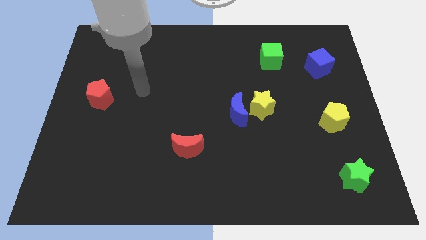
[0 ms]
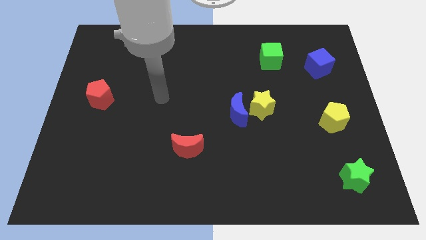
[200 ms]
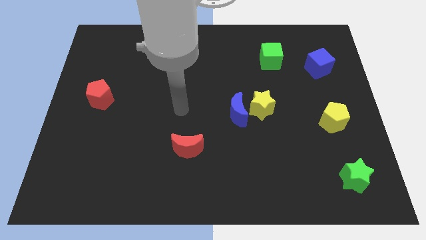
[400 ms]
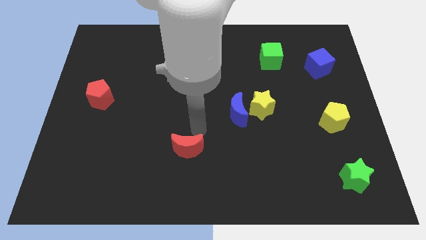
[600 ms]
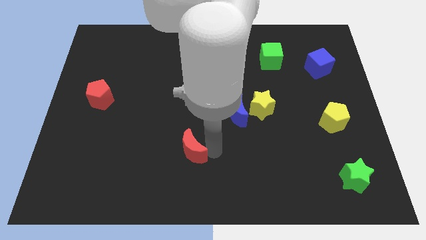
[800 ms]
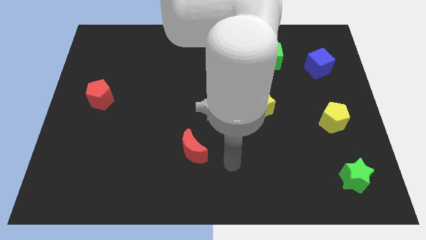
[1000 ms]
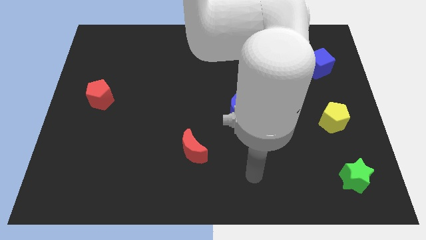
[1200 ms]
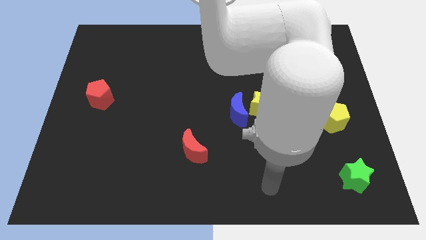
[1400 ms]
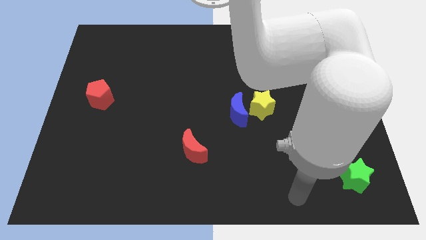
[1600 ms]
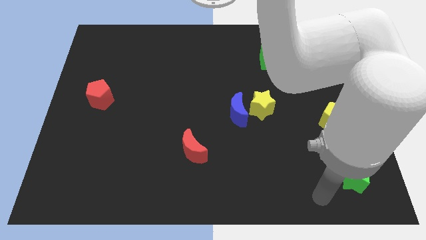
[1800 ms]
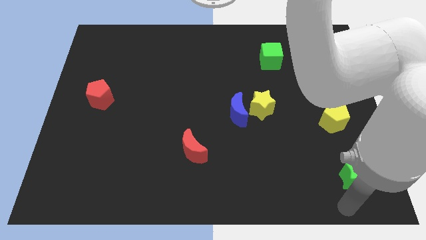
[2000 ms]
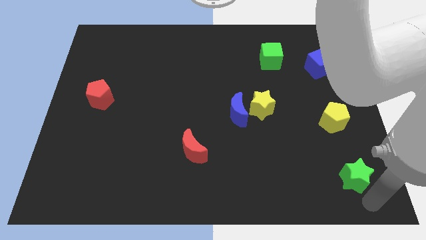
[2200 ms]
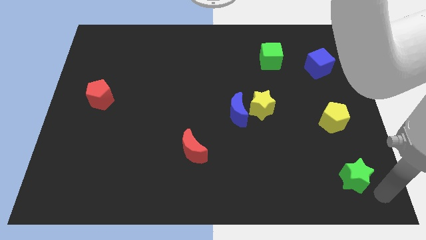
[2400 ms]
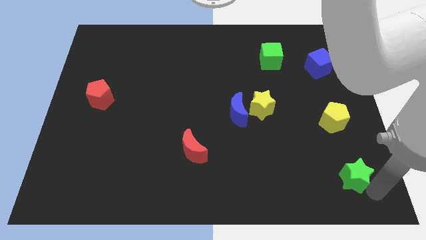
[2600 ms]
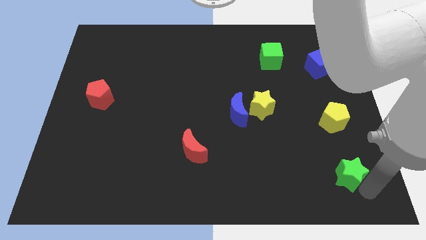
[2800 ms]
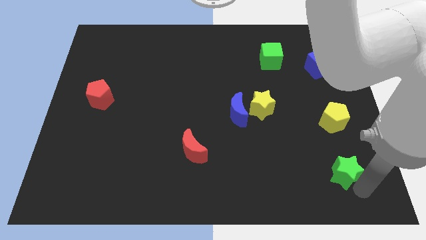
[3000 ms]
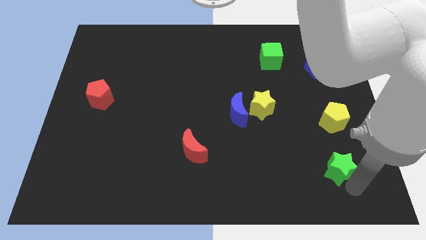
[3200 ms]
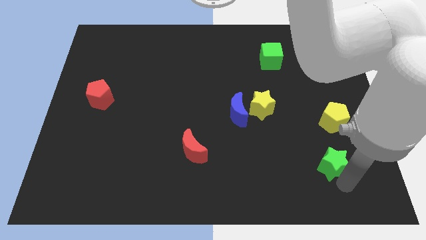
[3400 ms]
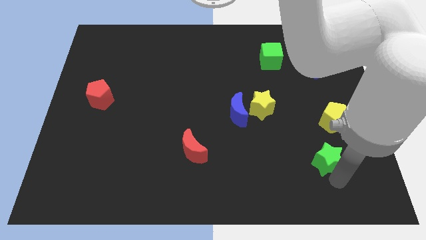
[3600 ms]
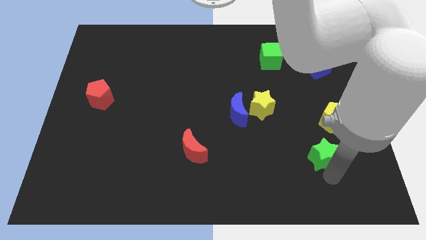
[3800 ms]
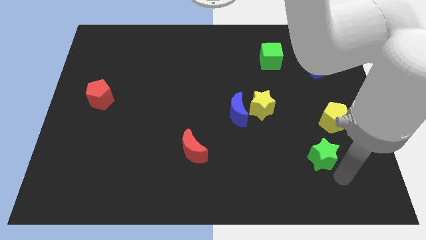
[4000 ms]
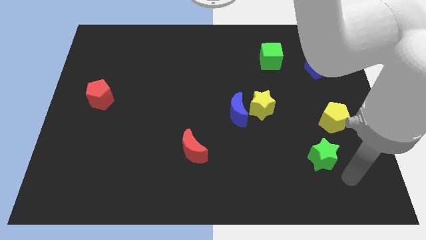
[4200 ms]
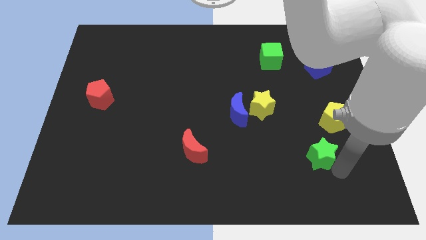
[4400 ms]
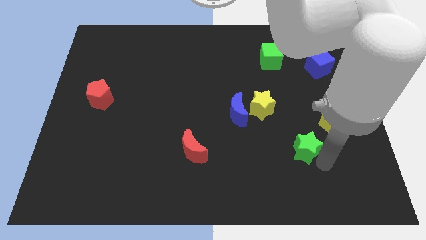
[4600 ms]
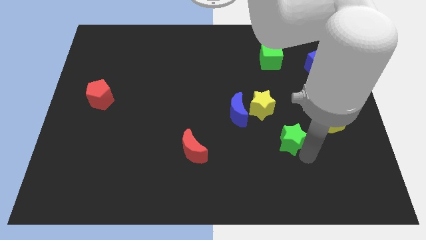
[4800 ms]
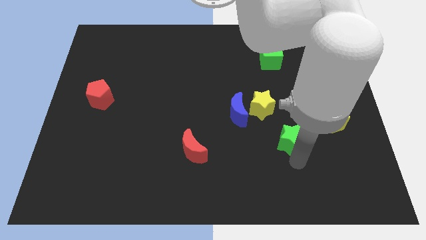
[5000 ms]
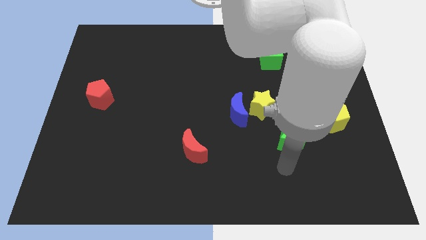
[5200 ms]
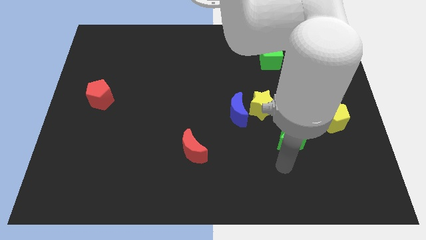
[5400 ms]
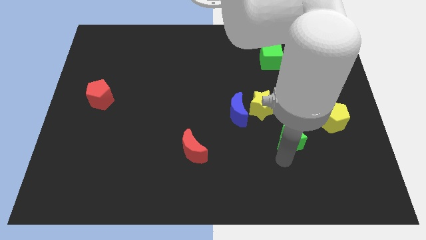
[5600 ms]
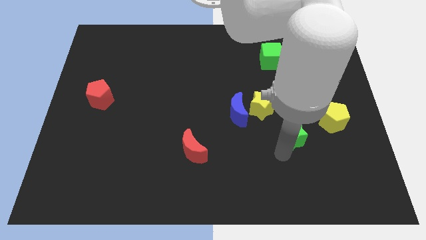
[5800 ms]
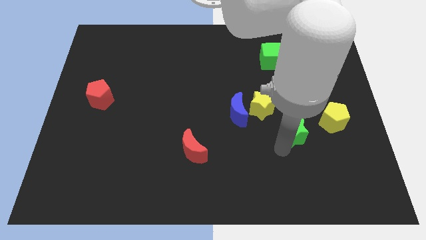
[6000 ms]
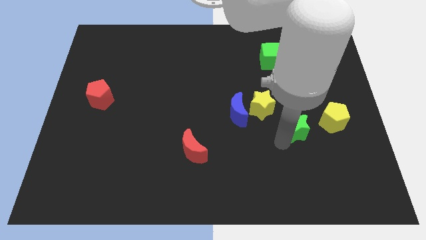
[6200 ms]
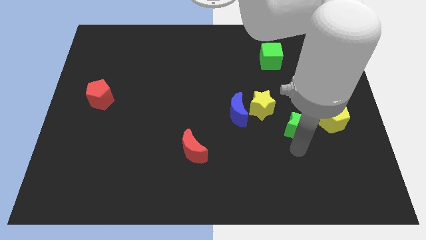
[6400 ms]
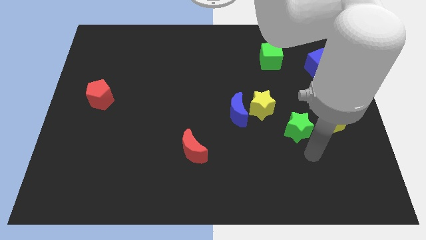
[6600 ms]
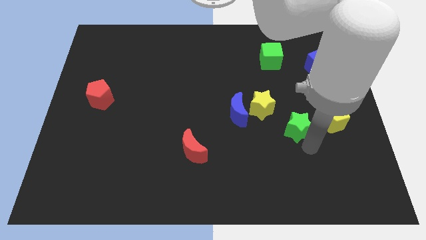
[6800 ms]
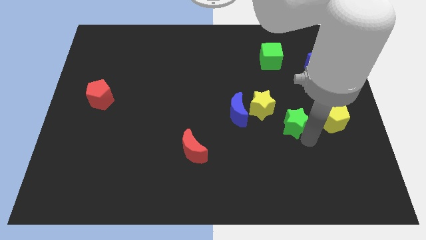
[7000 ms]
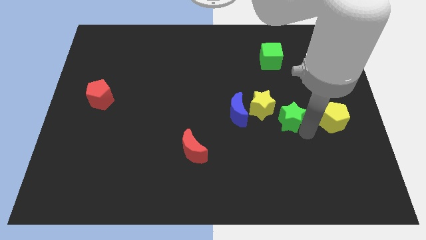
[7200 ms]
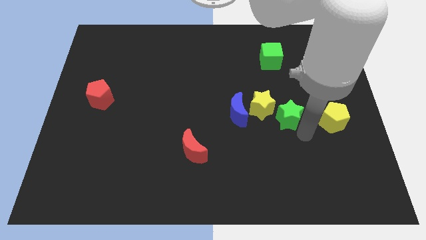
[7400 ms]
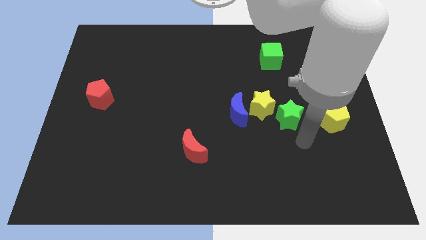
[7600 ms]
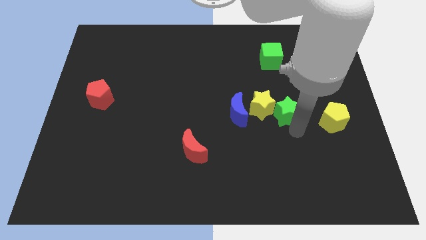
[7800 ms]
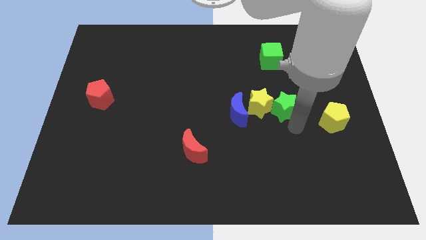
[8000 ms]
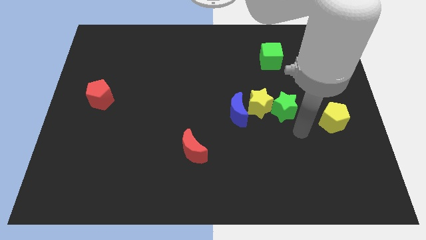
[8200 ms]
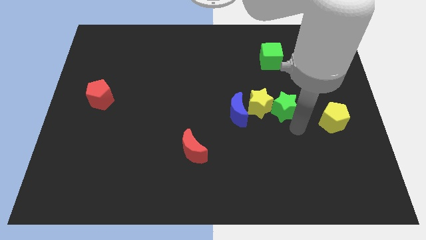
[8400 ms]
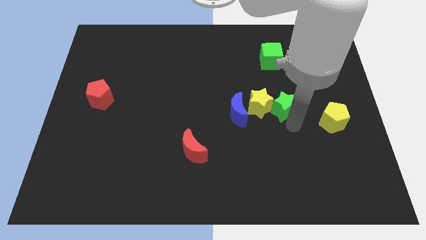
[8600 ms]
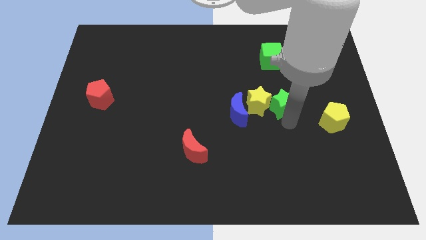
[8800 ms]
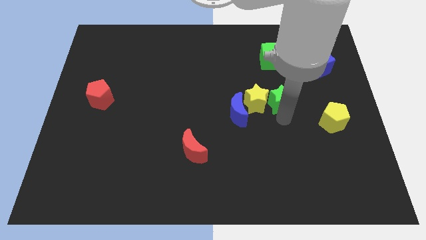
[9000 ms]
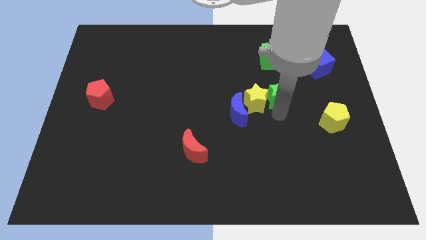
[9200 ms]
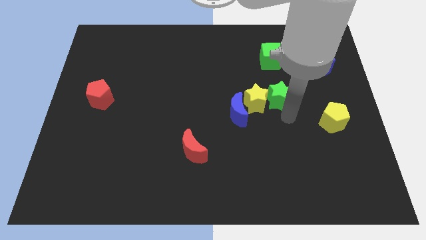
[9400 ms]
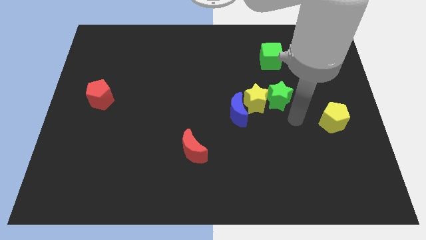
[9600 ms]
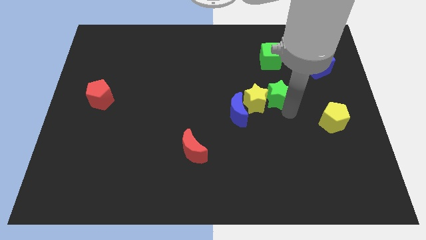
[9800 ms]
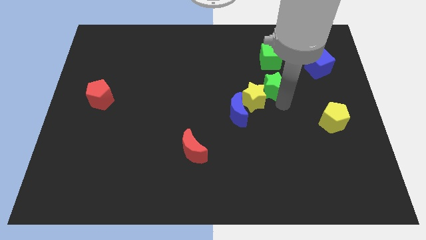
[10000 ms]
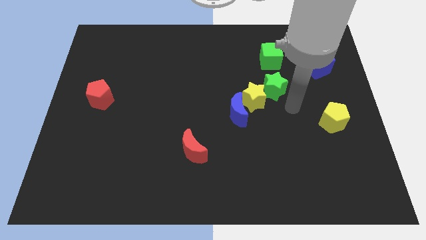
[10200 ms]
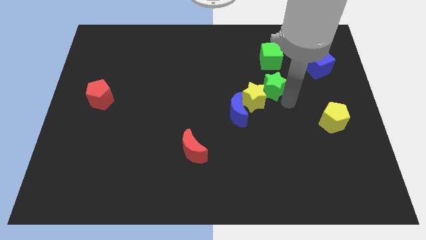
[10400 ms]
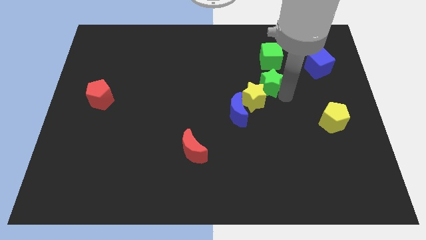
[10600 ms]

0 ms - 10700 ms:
put the green star above the yellow star

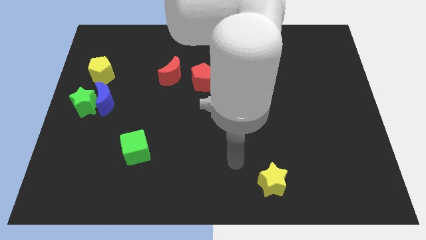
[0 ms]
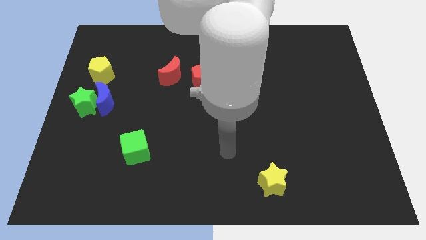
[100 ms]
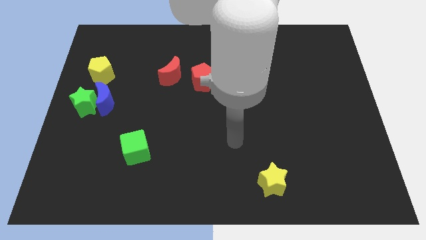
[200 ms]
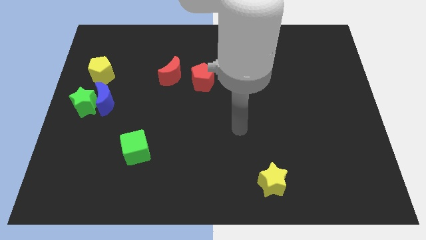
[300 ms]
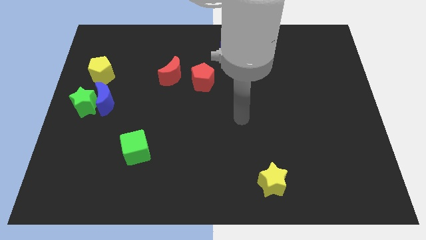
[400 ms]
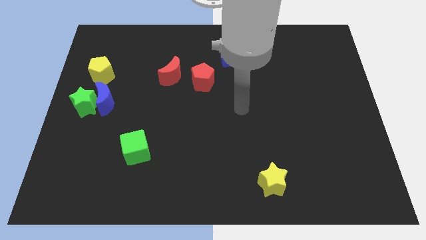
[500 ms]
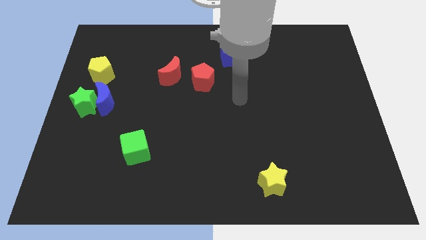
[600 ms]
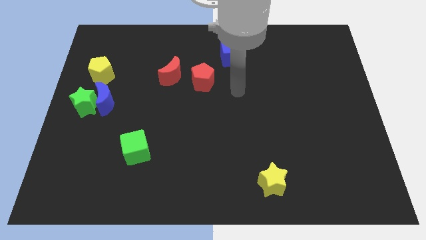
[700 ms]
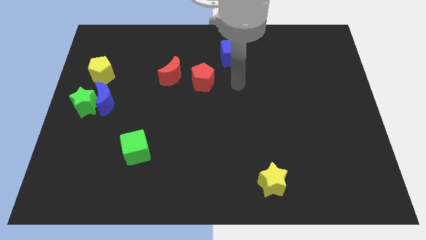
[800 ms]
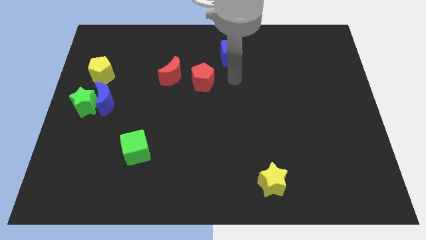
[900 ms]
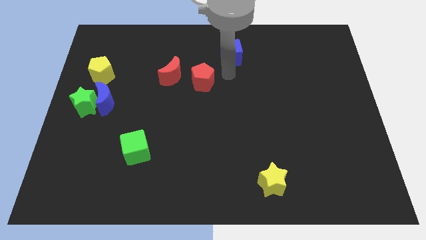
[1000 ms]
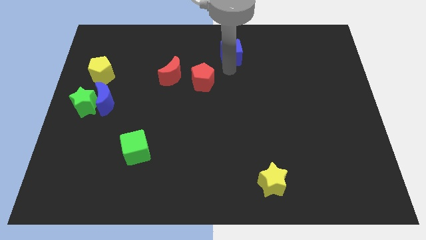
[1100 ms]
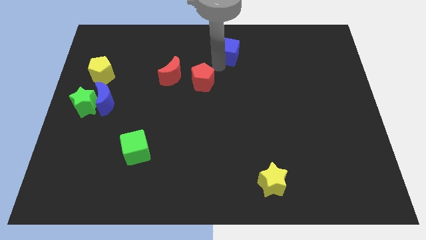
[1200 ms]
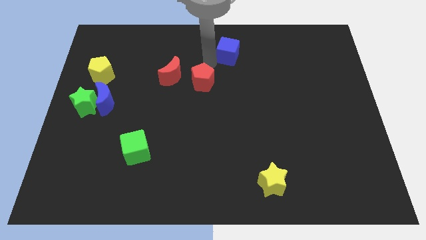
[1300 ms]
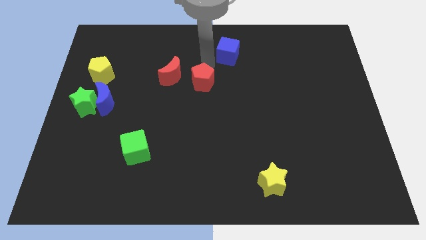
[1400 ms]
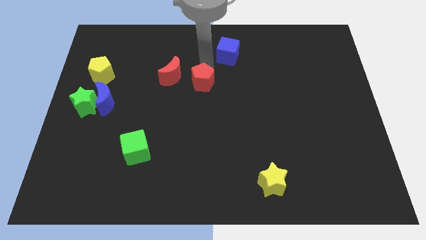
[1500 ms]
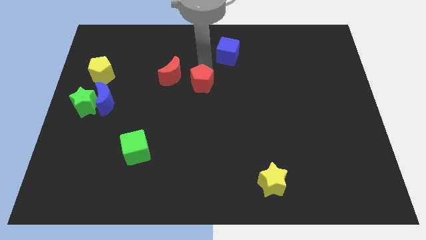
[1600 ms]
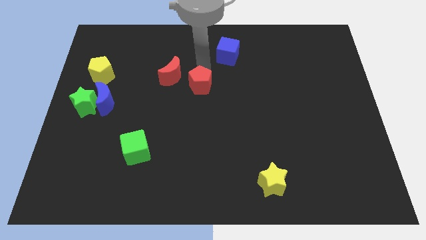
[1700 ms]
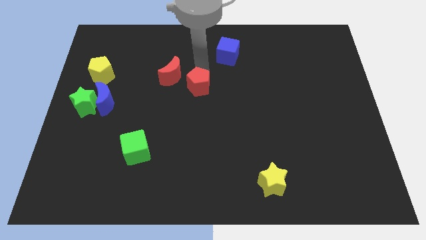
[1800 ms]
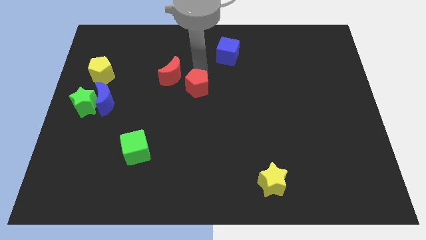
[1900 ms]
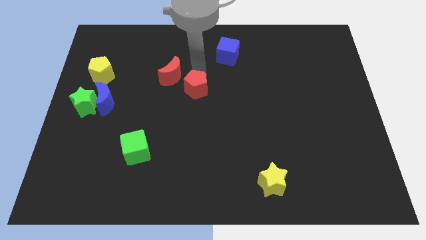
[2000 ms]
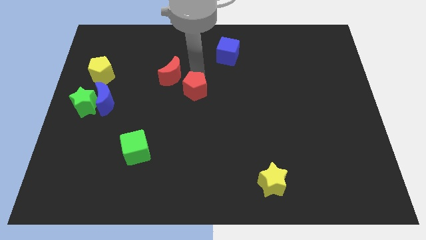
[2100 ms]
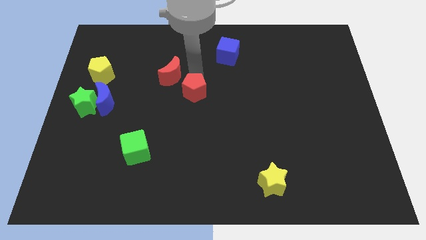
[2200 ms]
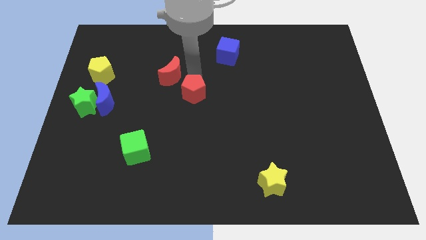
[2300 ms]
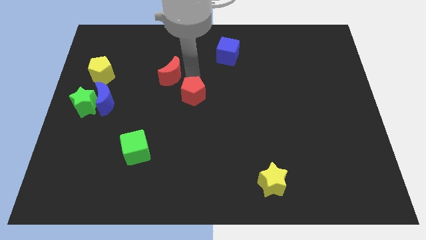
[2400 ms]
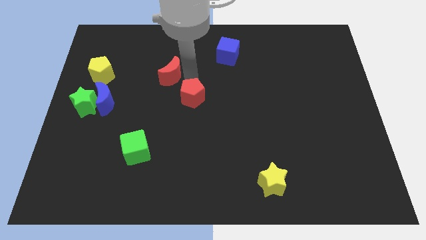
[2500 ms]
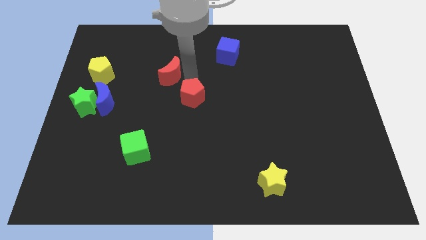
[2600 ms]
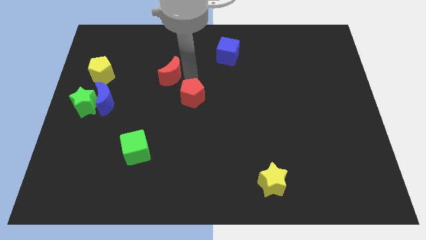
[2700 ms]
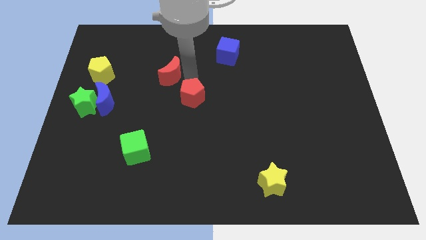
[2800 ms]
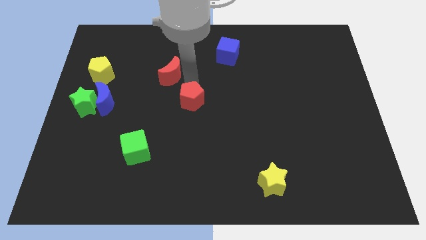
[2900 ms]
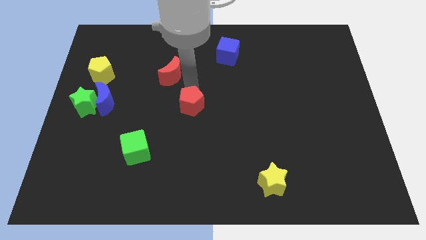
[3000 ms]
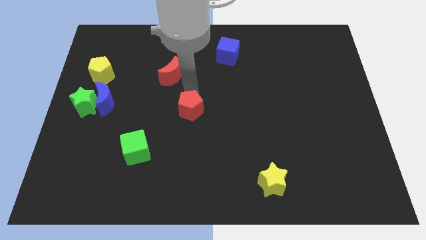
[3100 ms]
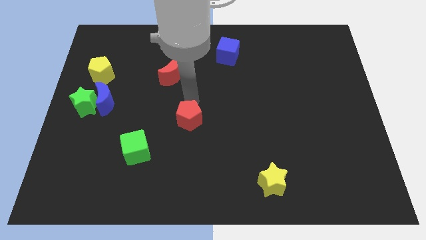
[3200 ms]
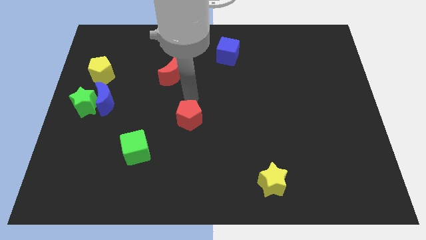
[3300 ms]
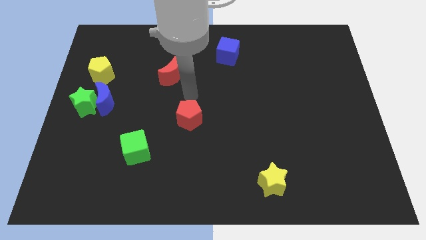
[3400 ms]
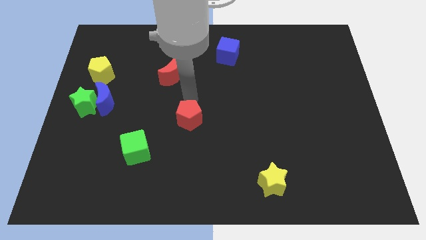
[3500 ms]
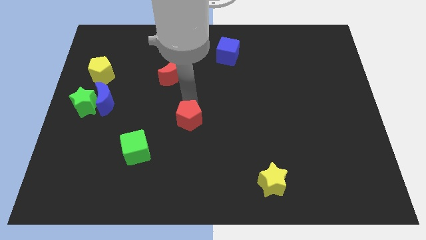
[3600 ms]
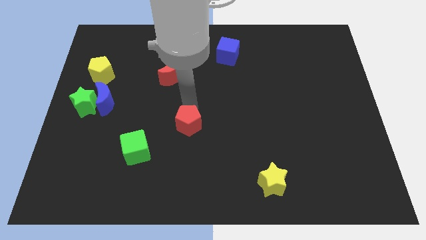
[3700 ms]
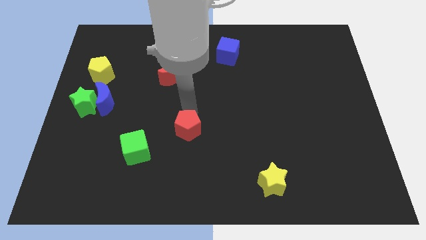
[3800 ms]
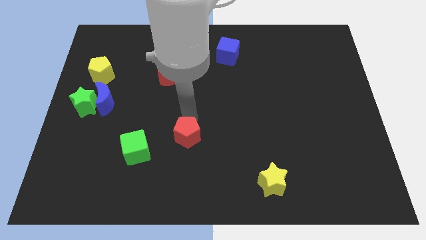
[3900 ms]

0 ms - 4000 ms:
move the red pentagon just right of the green cube
